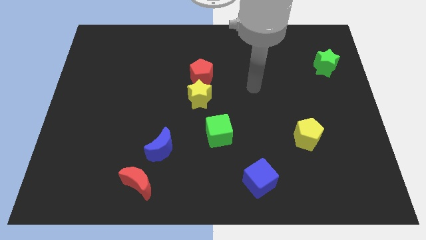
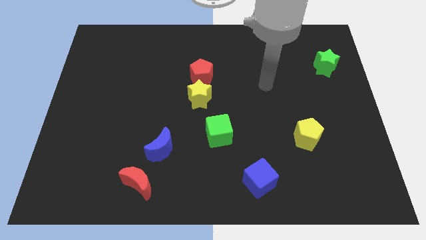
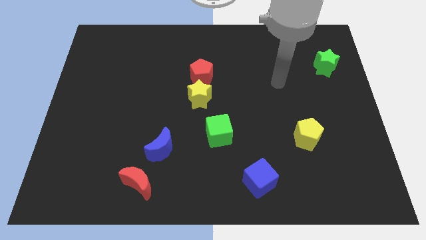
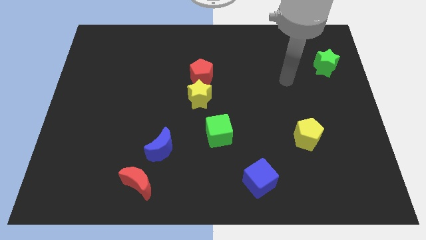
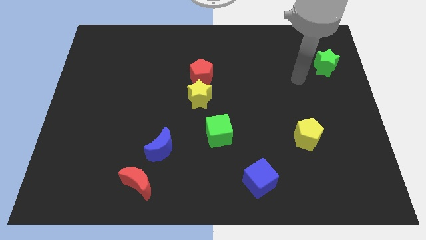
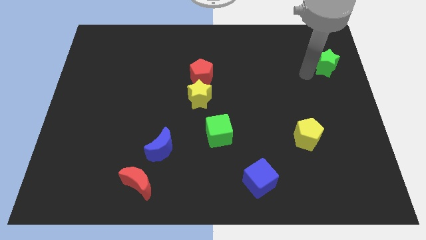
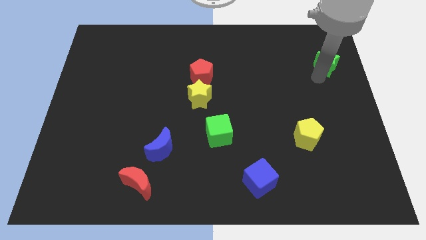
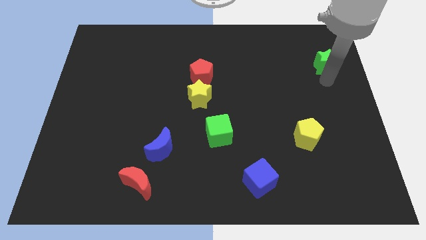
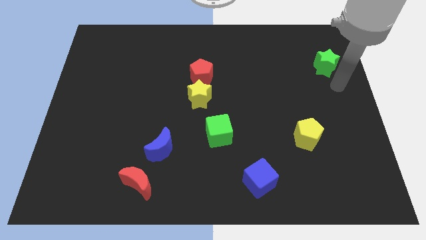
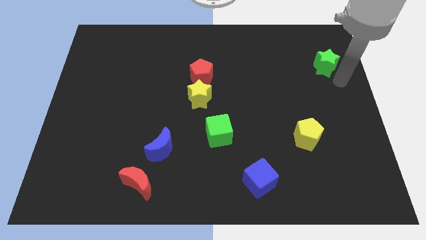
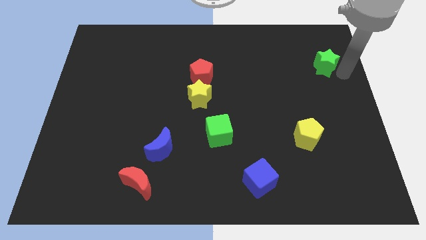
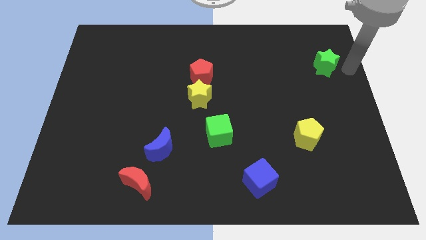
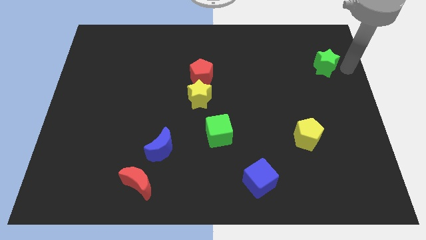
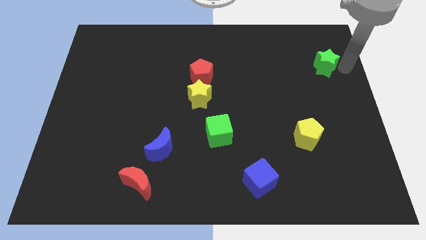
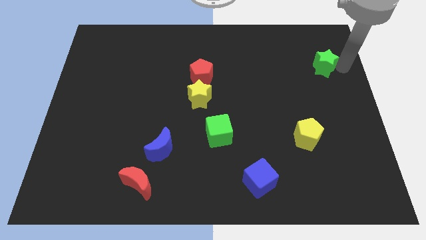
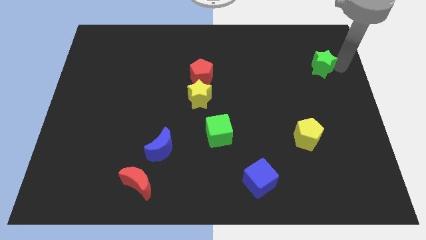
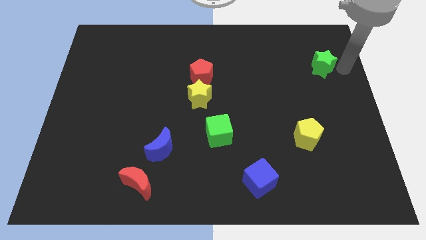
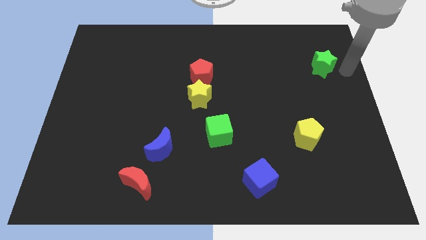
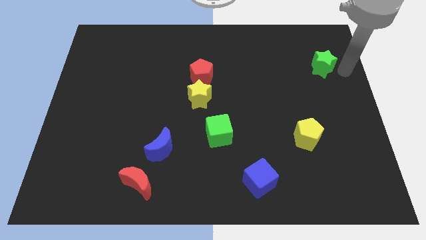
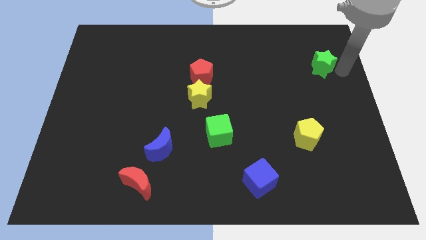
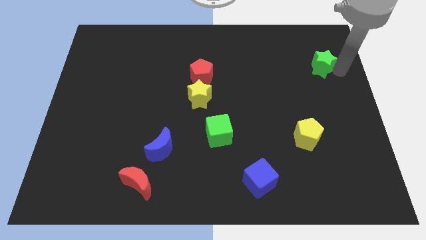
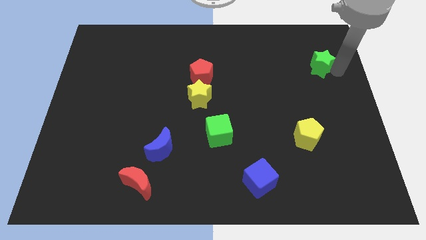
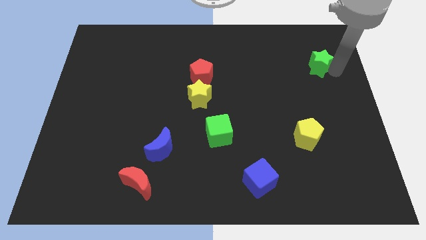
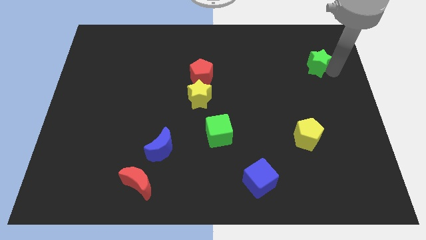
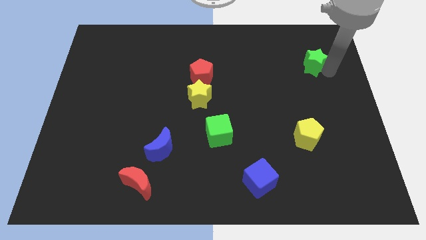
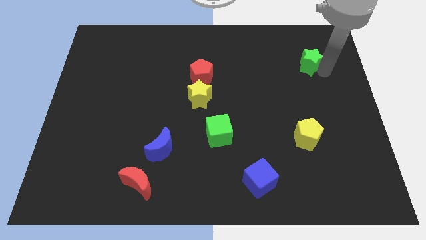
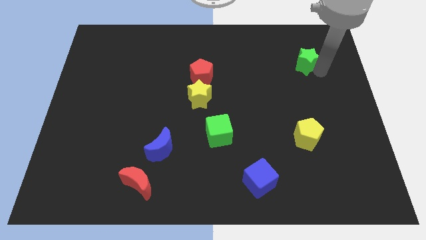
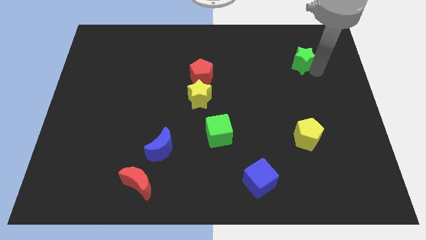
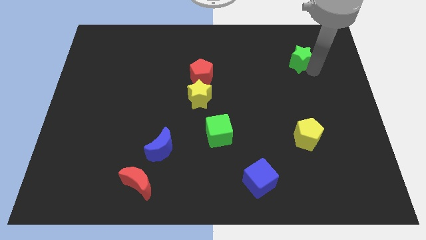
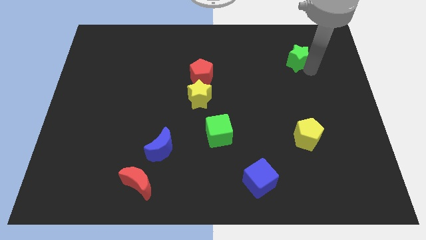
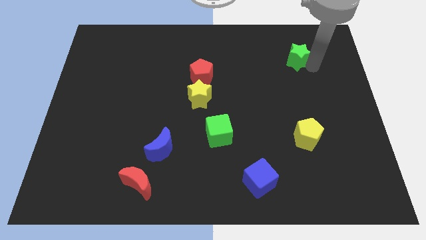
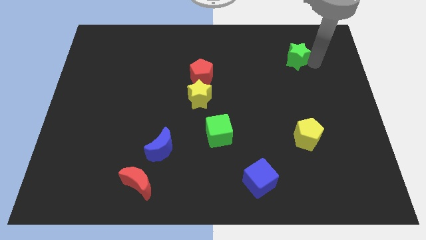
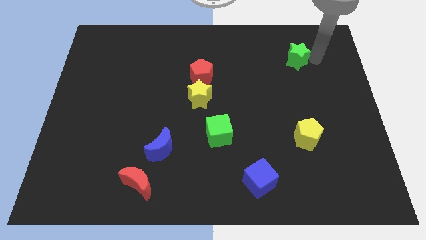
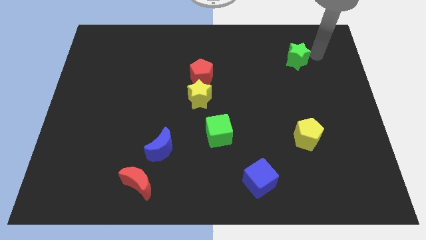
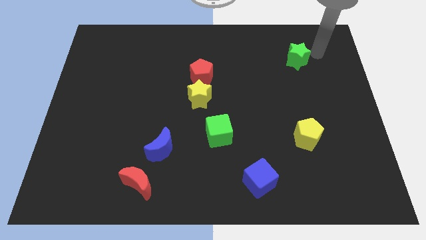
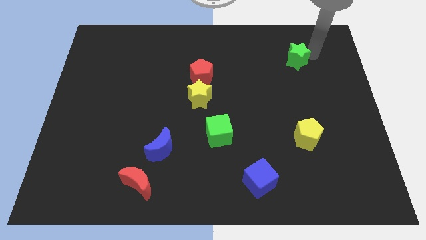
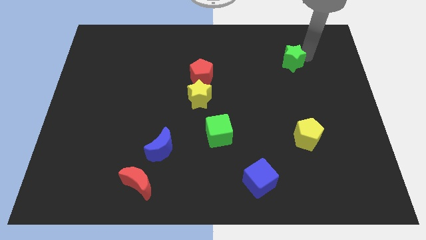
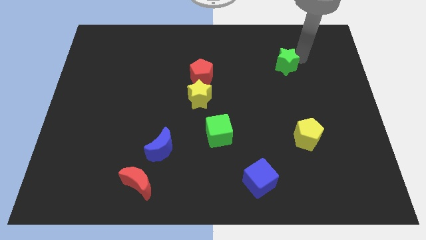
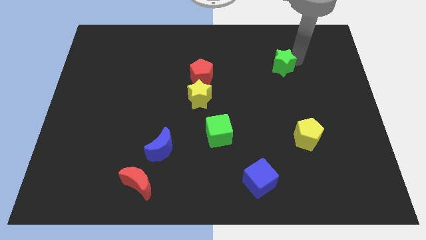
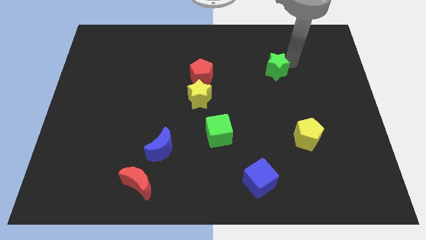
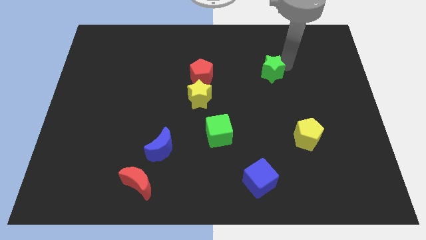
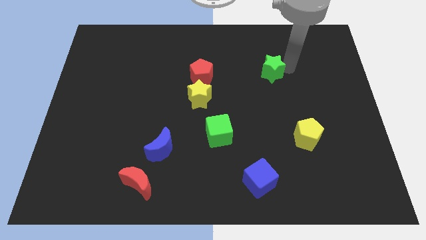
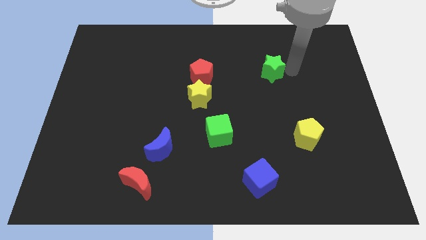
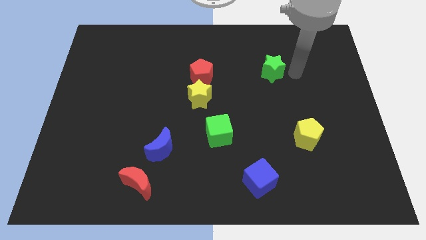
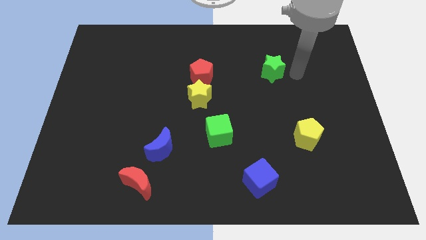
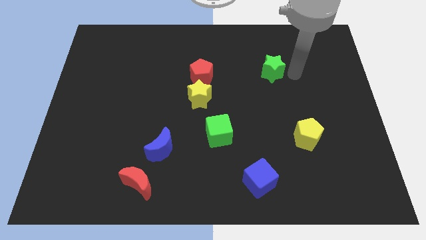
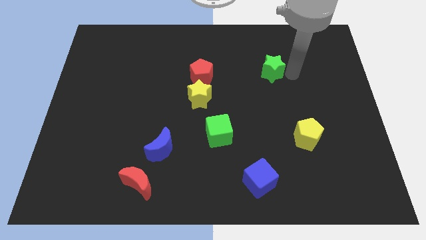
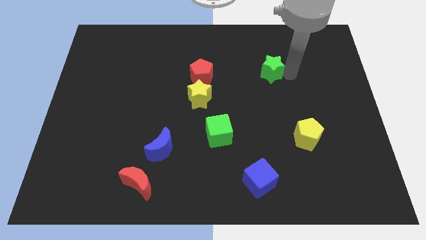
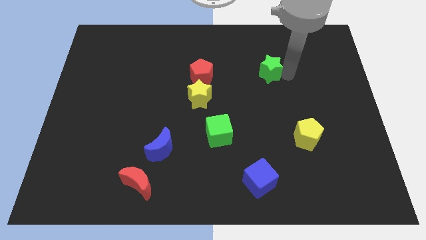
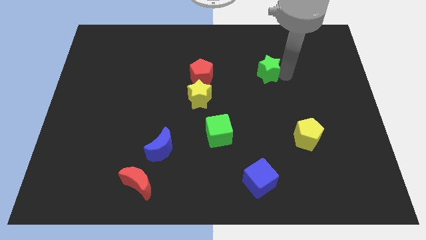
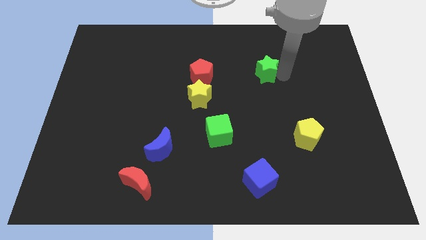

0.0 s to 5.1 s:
push the green star right of the red pentagon

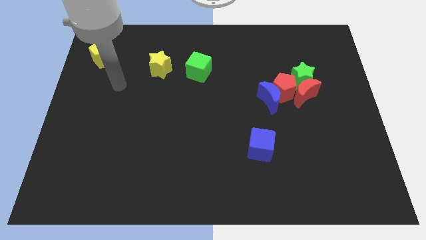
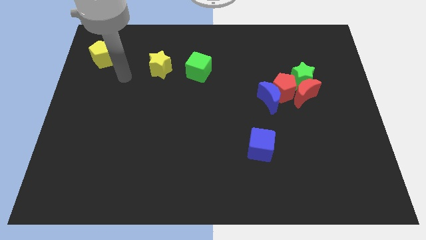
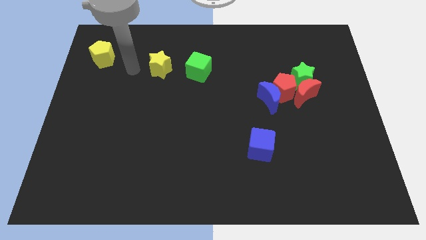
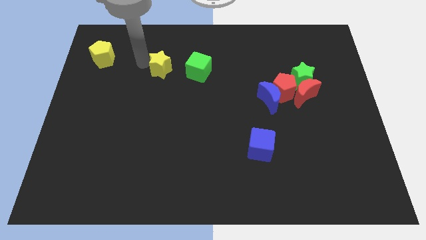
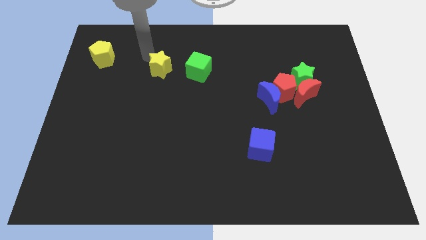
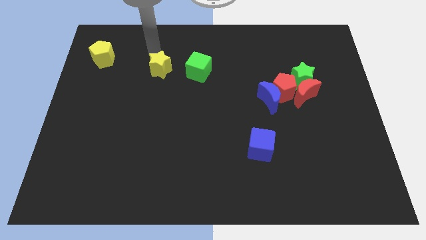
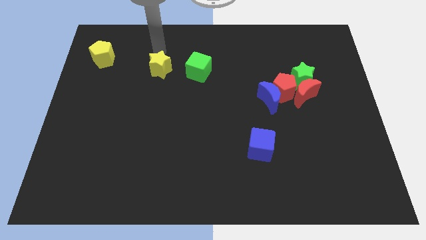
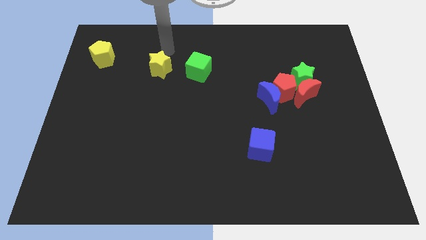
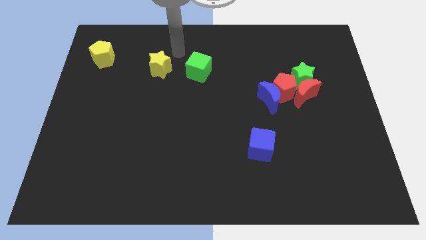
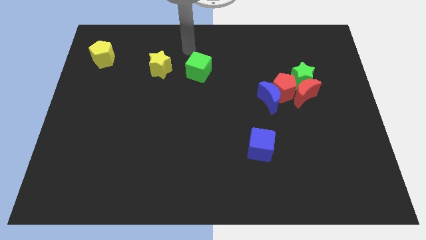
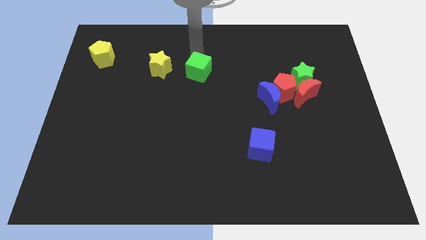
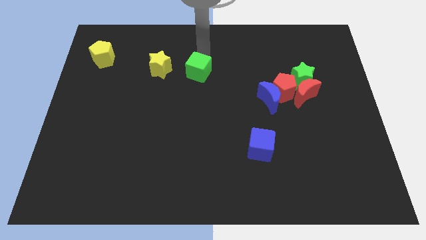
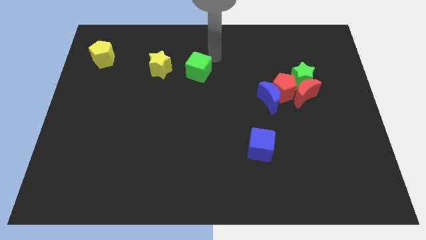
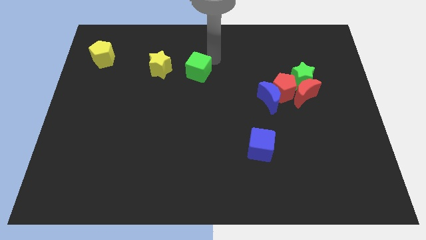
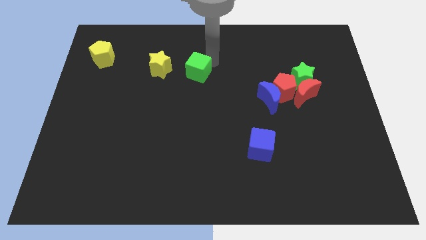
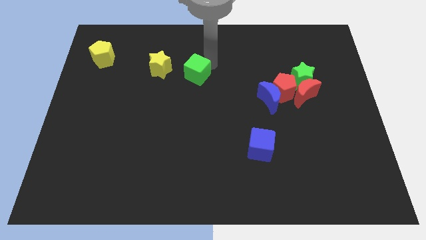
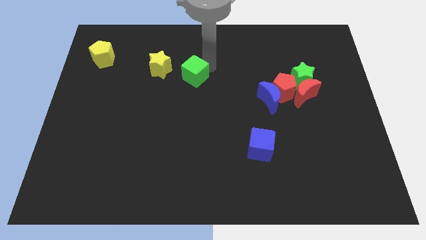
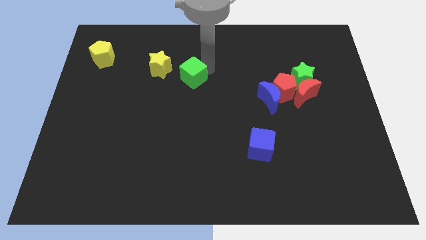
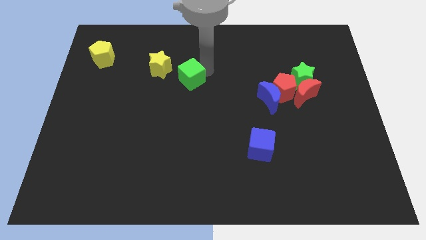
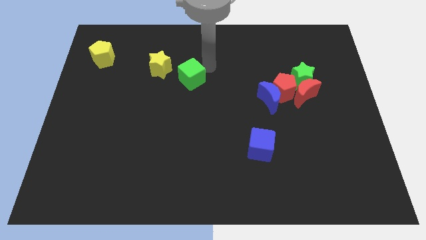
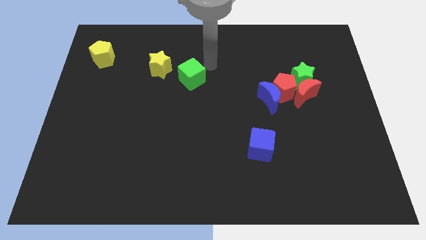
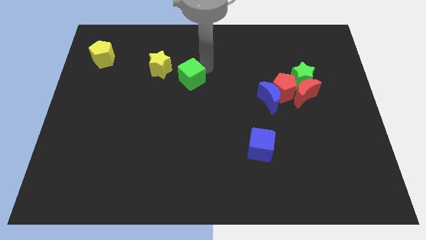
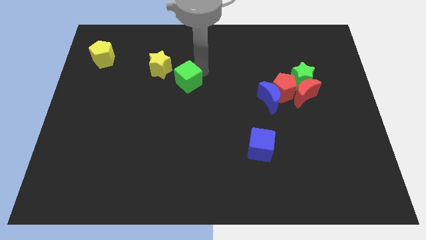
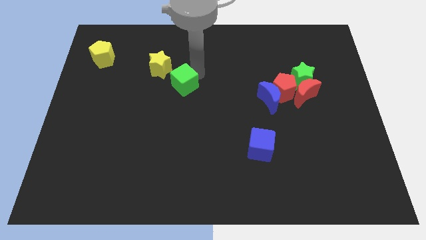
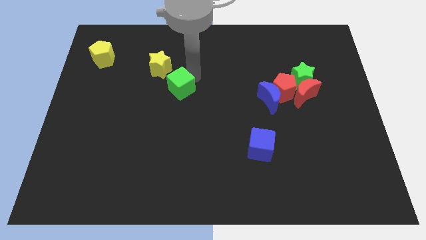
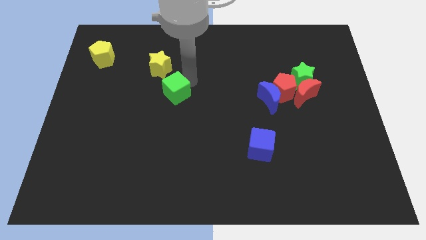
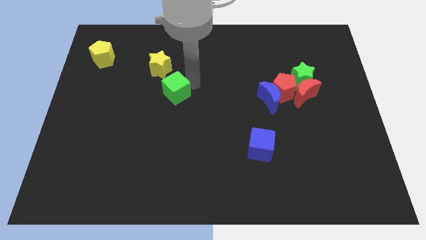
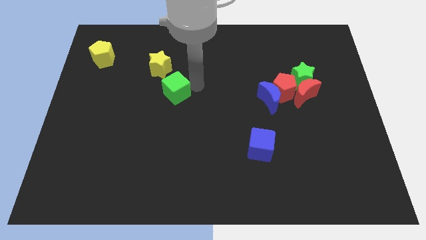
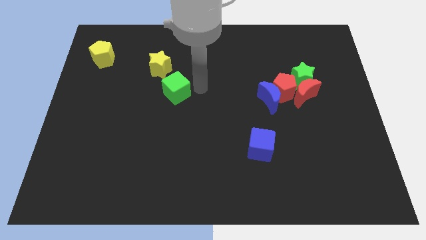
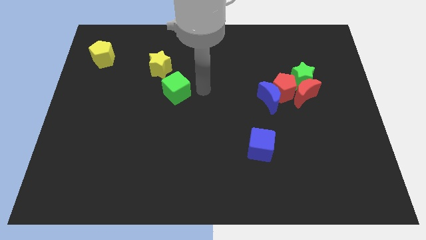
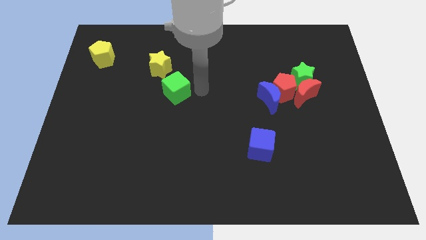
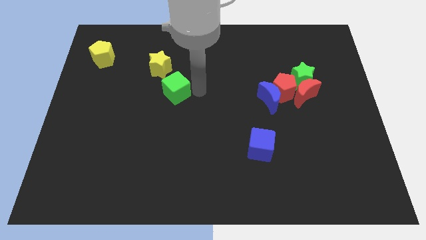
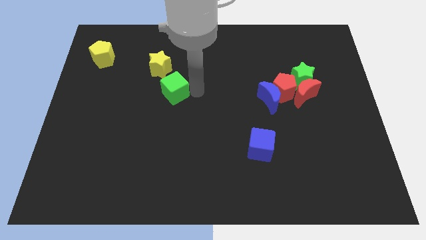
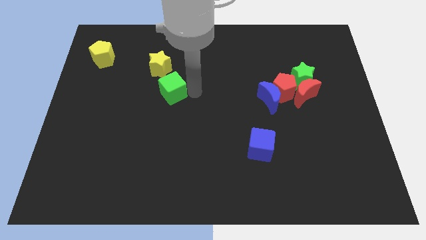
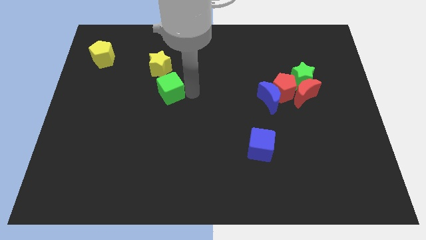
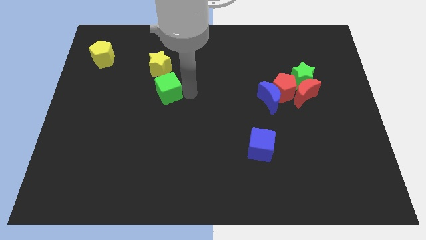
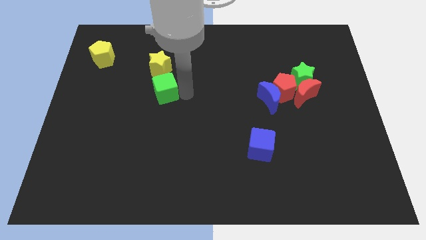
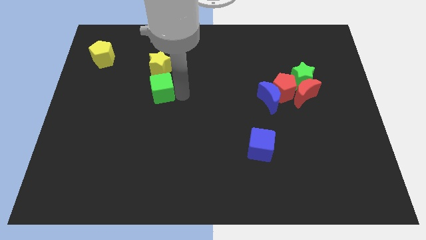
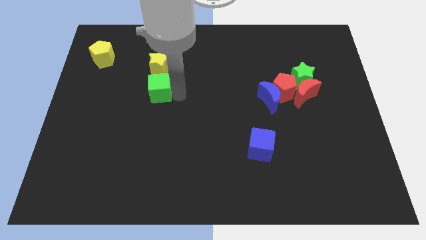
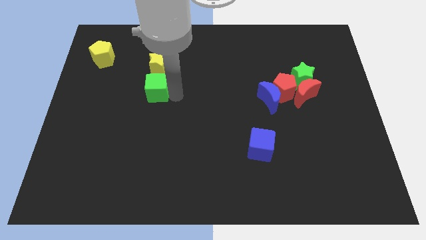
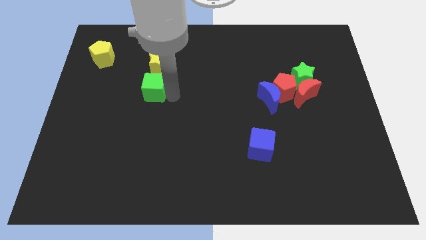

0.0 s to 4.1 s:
move the green cube diagonally down and to the left of the yellow star
